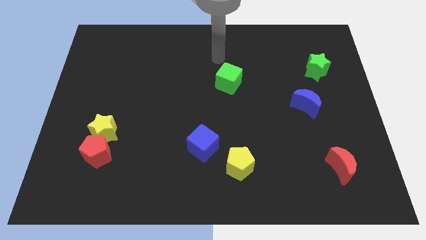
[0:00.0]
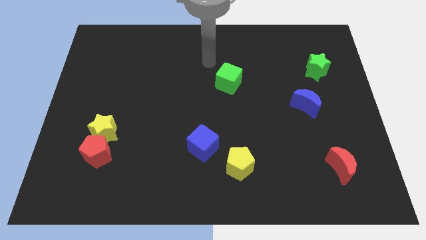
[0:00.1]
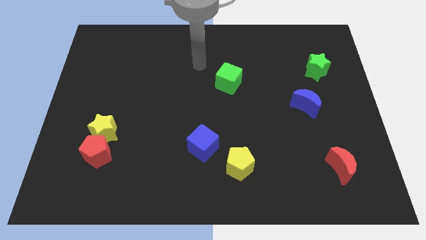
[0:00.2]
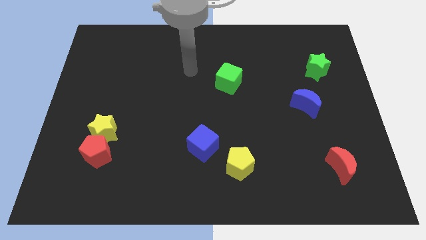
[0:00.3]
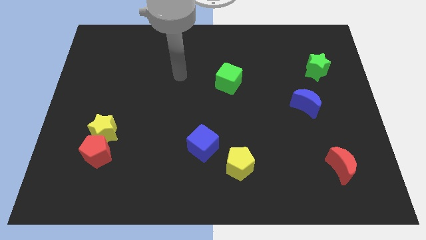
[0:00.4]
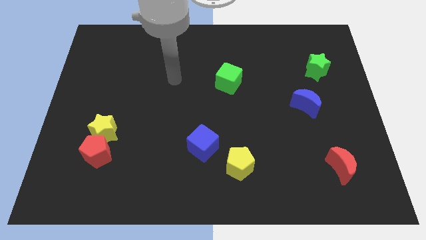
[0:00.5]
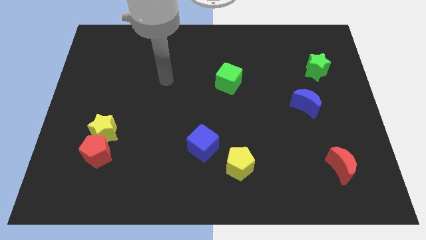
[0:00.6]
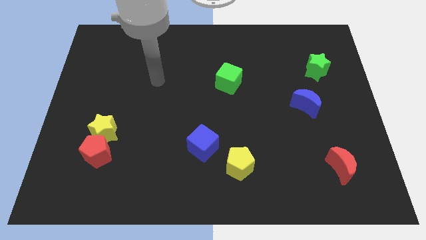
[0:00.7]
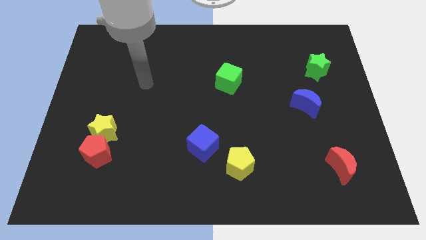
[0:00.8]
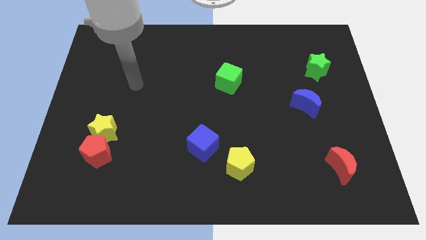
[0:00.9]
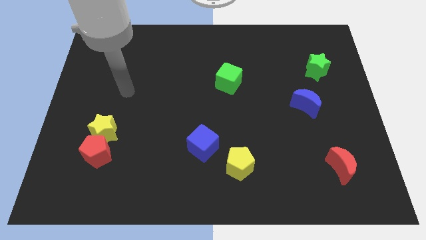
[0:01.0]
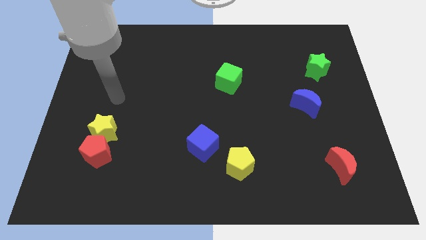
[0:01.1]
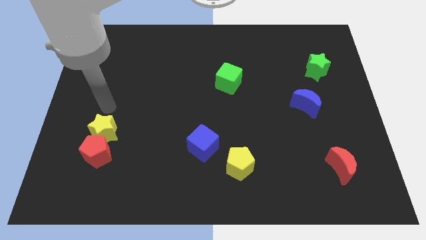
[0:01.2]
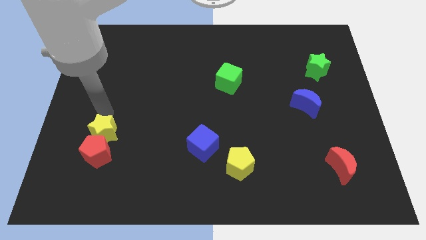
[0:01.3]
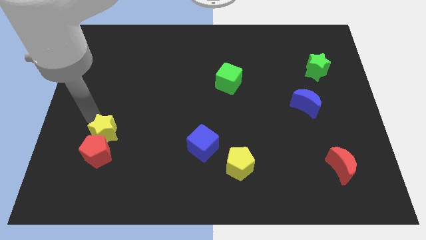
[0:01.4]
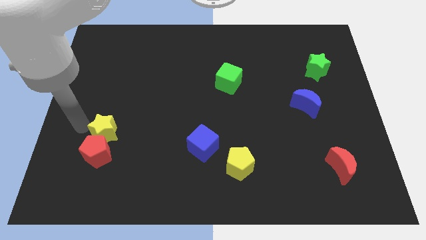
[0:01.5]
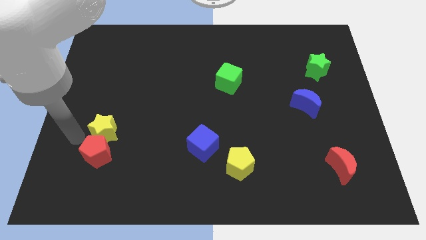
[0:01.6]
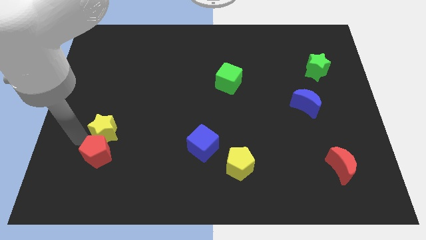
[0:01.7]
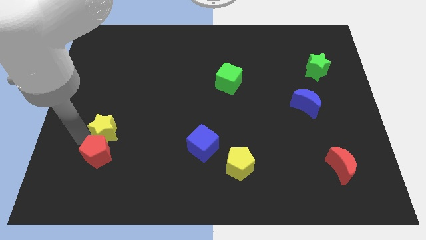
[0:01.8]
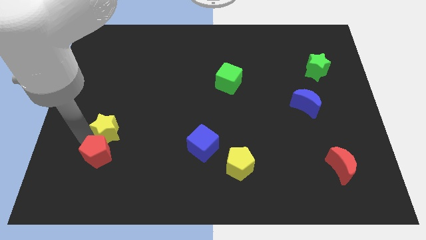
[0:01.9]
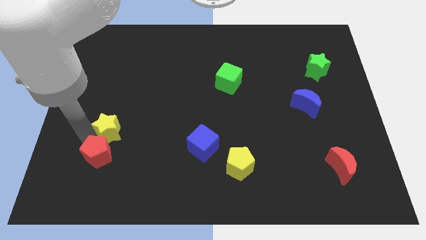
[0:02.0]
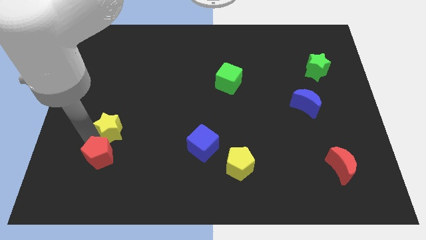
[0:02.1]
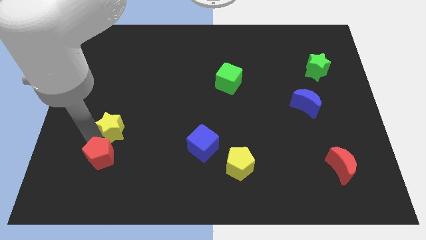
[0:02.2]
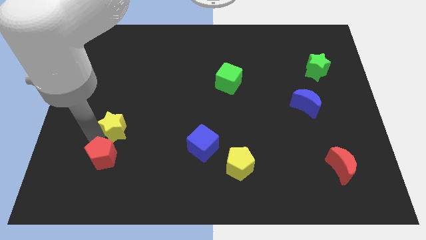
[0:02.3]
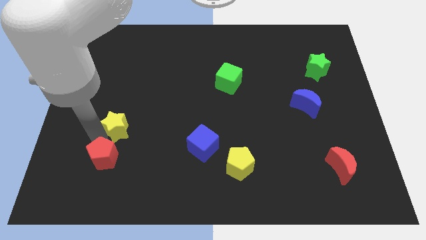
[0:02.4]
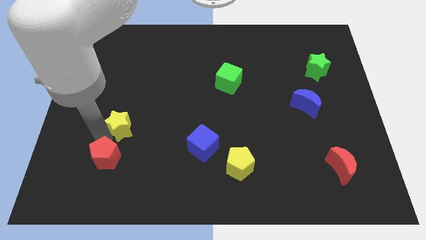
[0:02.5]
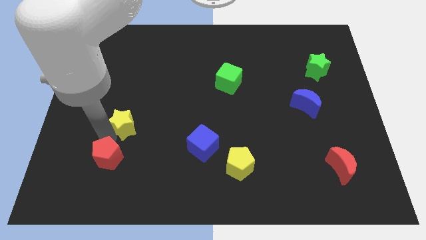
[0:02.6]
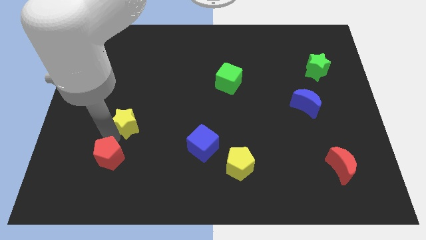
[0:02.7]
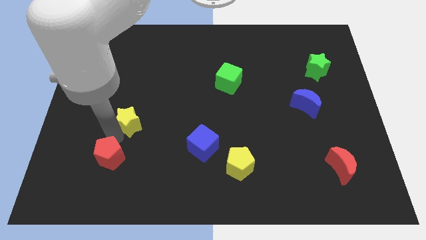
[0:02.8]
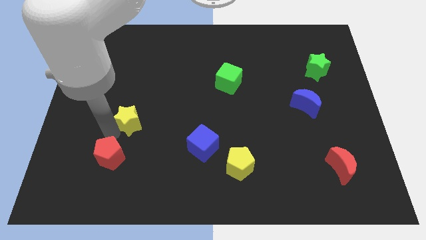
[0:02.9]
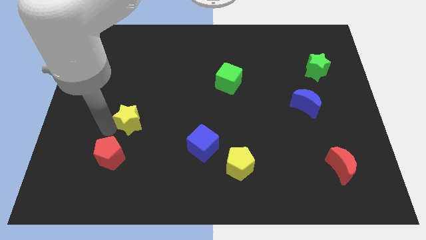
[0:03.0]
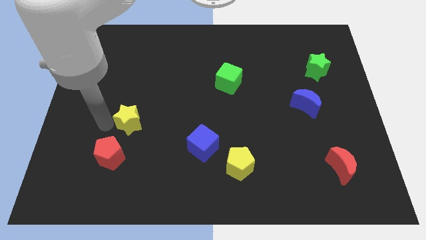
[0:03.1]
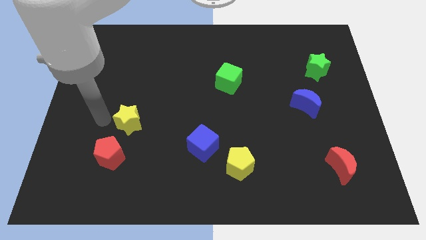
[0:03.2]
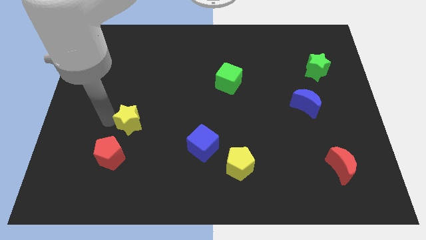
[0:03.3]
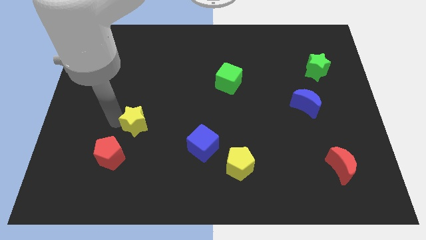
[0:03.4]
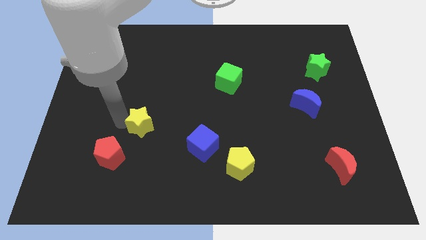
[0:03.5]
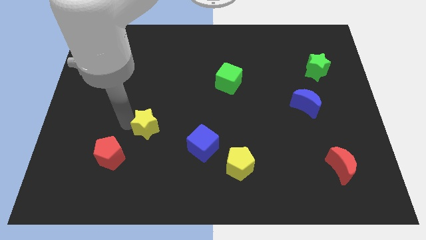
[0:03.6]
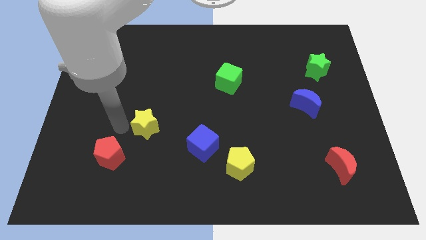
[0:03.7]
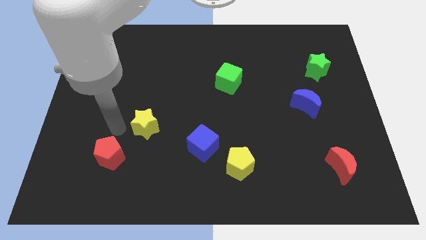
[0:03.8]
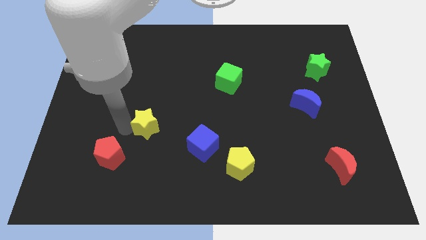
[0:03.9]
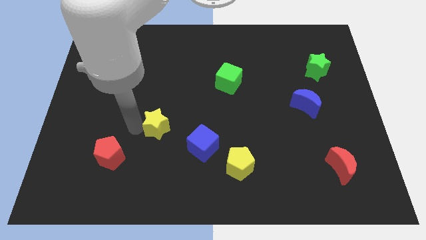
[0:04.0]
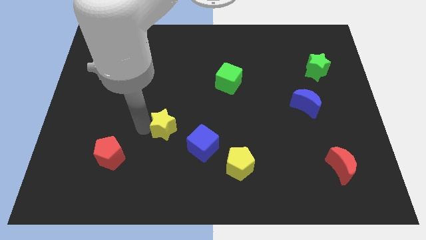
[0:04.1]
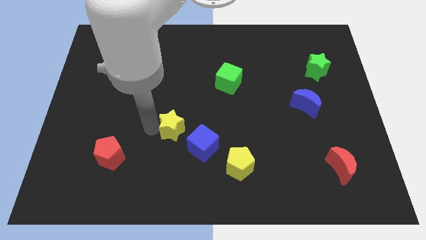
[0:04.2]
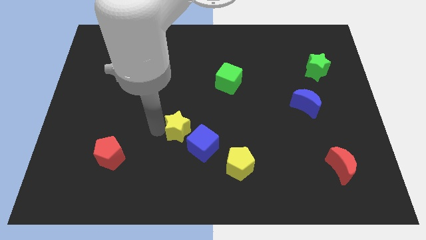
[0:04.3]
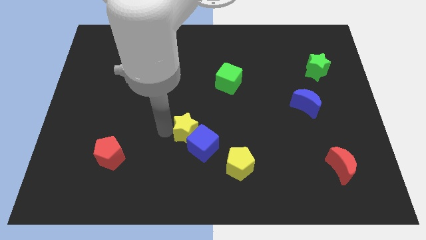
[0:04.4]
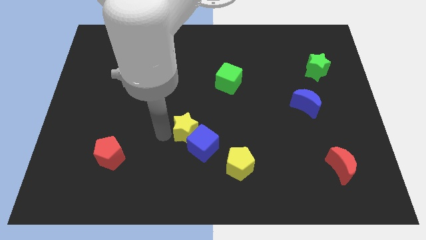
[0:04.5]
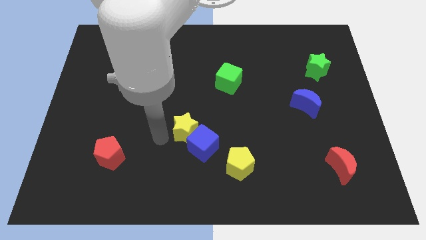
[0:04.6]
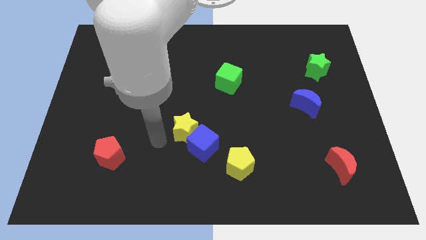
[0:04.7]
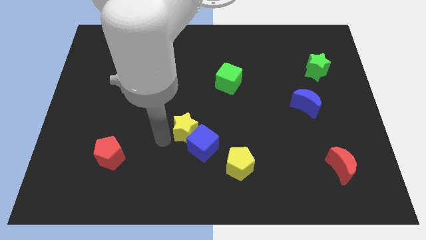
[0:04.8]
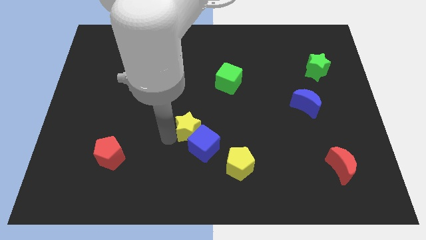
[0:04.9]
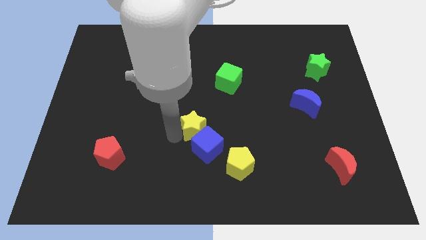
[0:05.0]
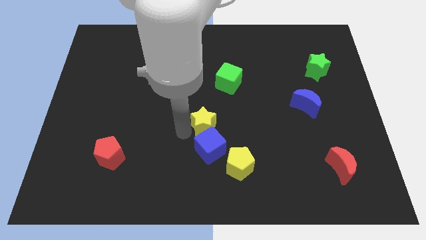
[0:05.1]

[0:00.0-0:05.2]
move the yellow star to the top right of the blue cube

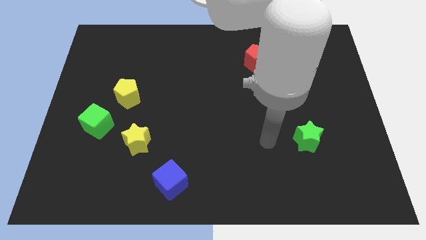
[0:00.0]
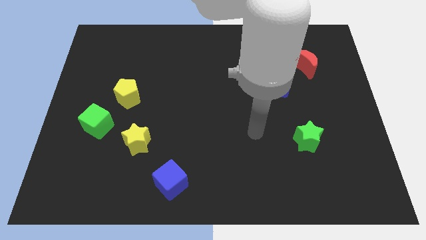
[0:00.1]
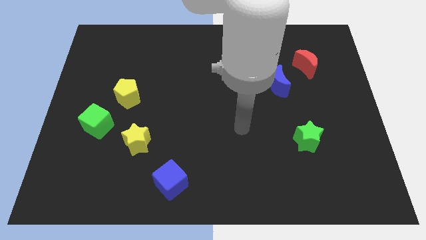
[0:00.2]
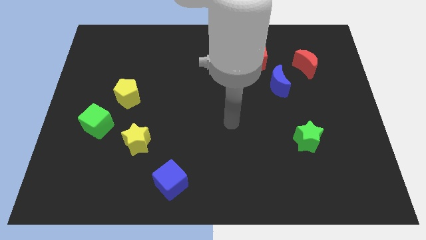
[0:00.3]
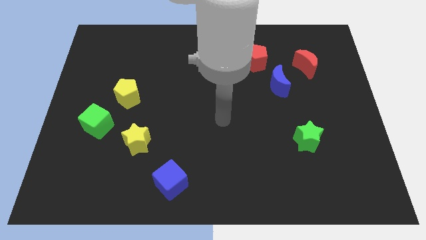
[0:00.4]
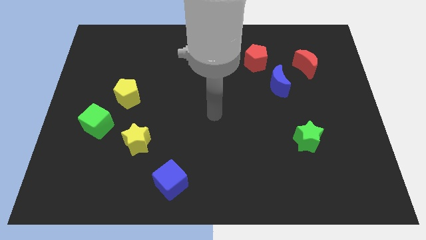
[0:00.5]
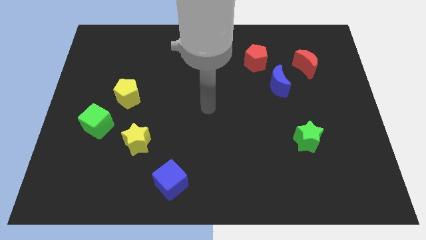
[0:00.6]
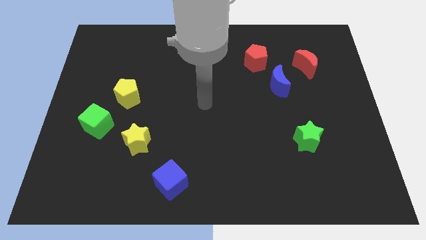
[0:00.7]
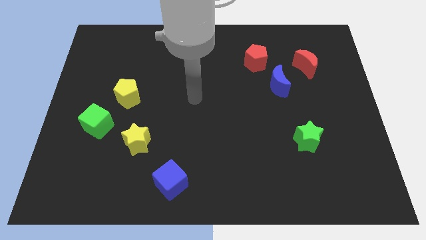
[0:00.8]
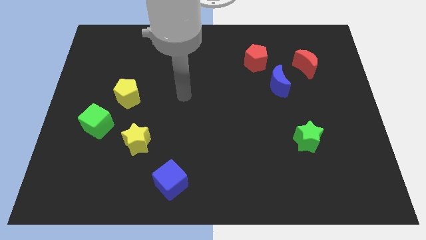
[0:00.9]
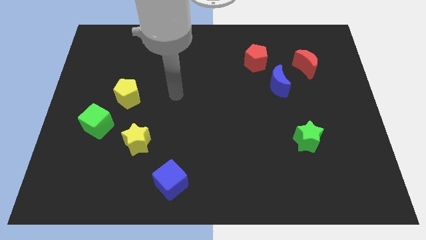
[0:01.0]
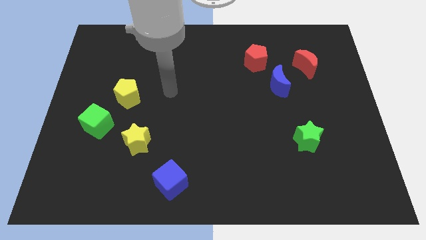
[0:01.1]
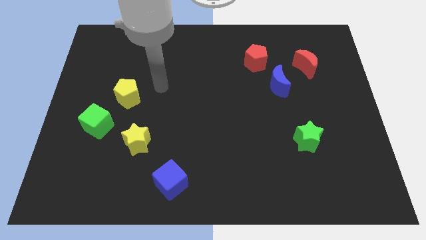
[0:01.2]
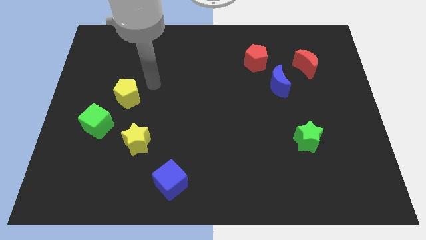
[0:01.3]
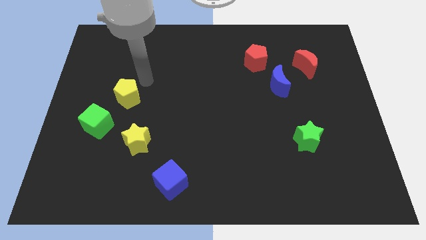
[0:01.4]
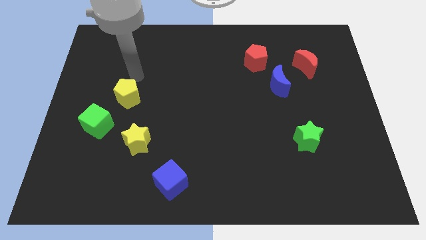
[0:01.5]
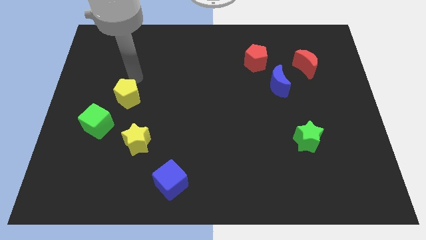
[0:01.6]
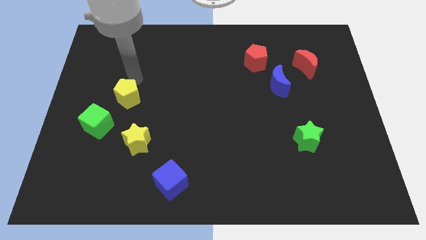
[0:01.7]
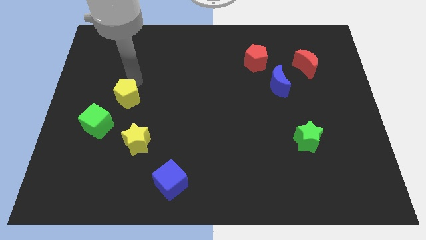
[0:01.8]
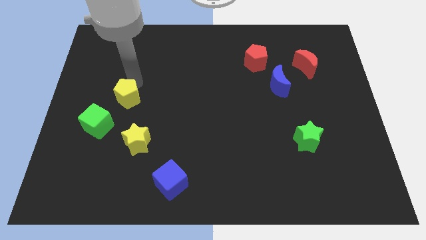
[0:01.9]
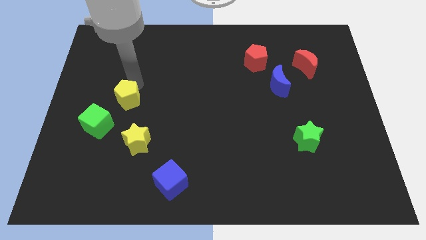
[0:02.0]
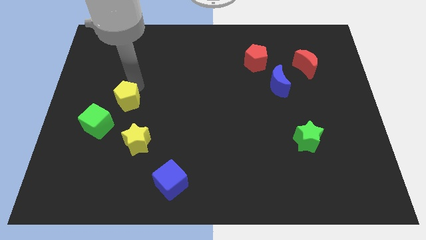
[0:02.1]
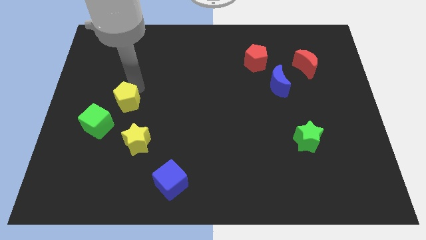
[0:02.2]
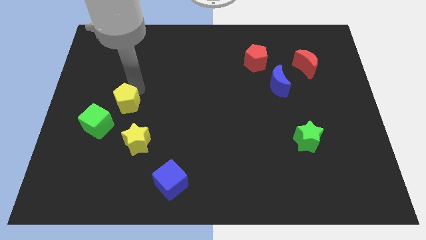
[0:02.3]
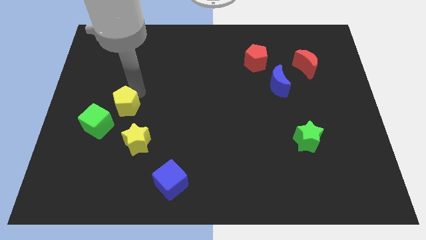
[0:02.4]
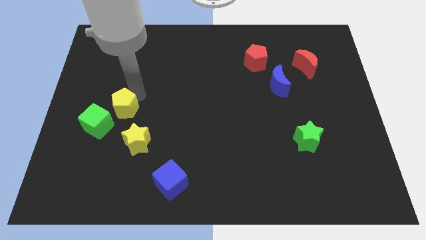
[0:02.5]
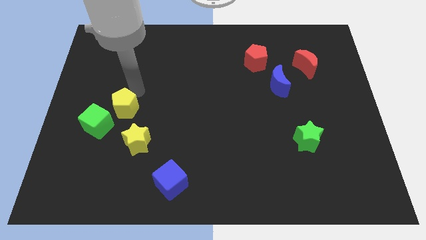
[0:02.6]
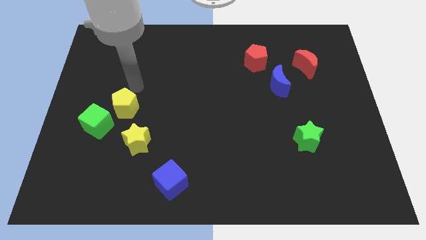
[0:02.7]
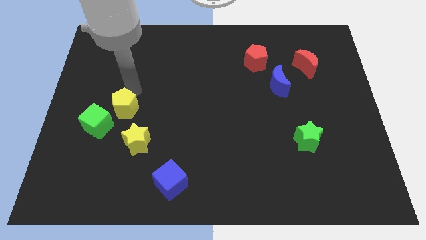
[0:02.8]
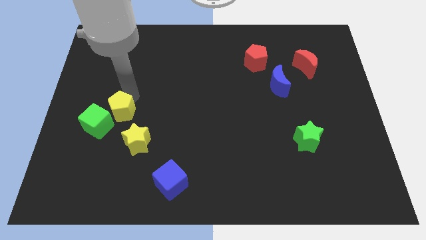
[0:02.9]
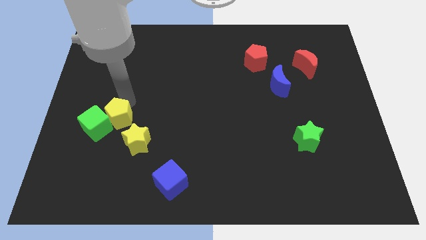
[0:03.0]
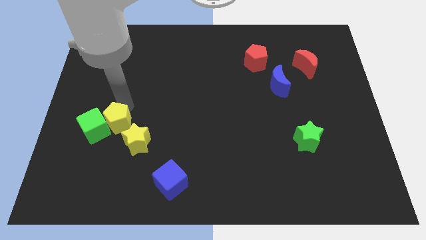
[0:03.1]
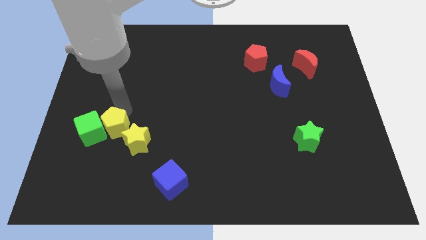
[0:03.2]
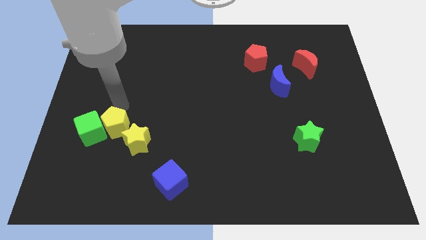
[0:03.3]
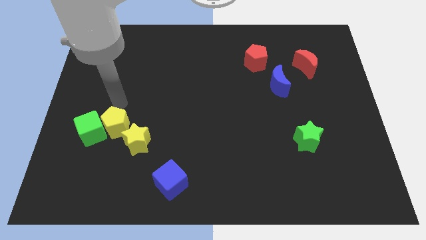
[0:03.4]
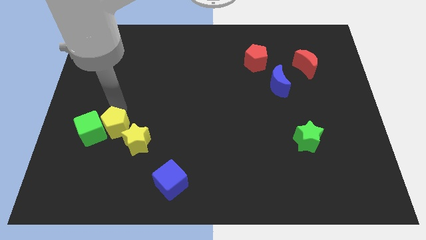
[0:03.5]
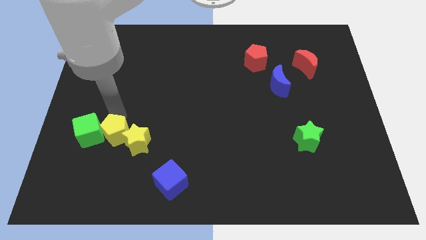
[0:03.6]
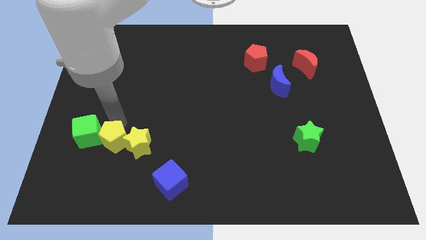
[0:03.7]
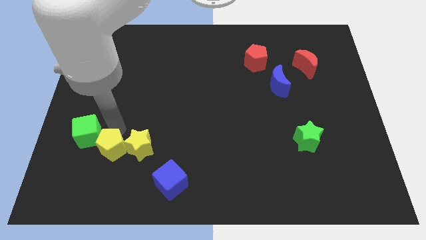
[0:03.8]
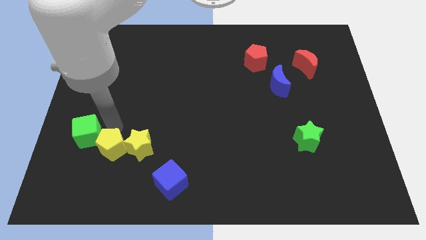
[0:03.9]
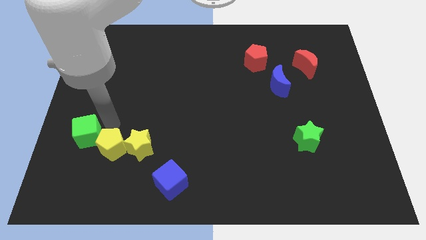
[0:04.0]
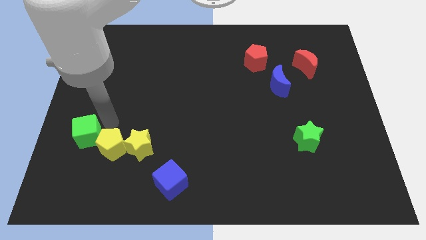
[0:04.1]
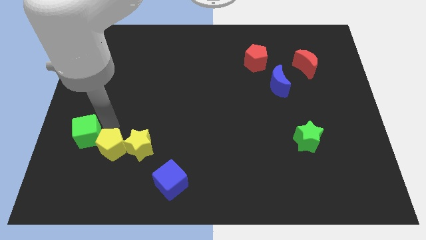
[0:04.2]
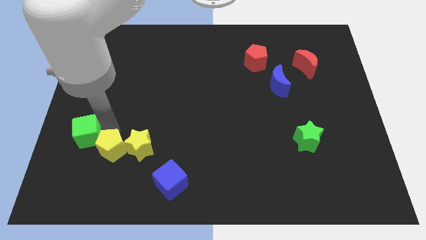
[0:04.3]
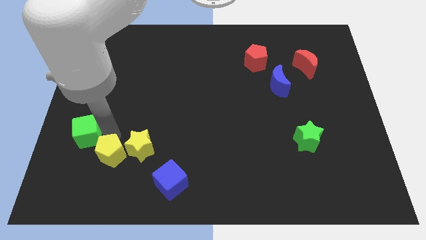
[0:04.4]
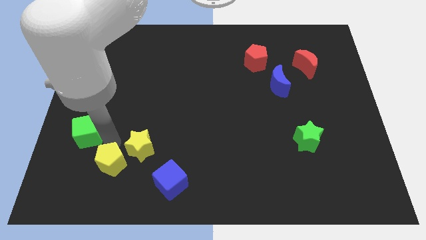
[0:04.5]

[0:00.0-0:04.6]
push the yellow pentagon just left of the blue cube
